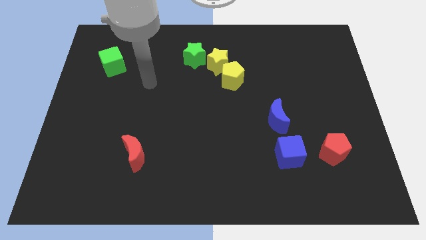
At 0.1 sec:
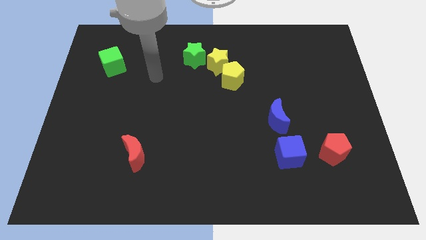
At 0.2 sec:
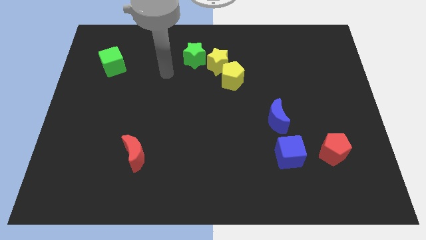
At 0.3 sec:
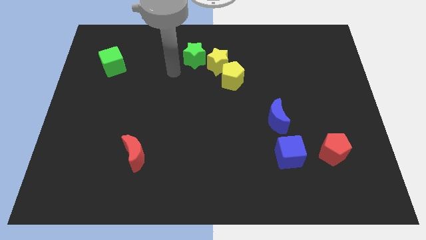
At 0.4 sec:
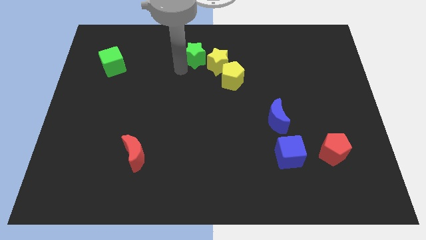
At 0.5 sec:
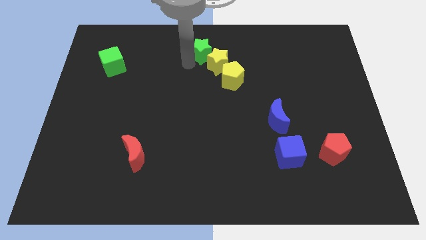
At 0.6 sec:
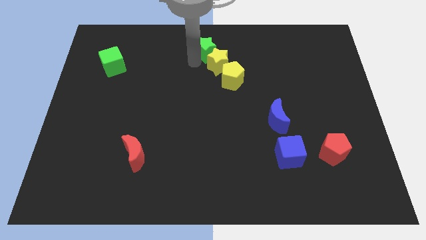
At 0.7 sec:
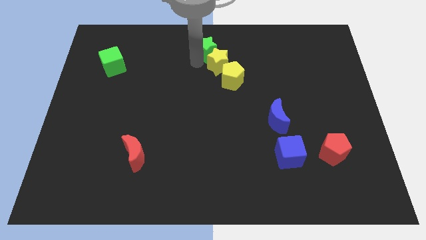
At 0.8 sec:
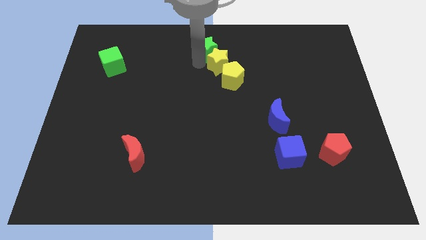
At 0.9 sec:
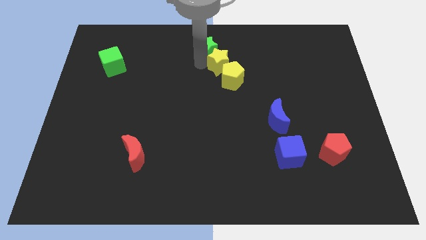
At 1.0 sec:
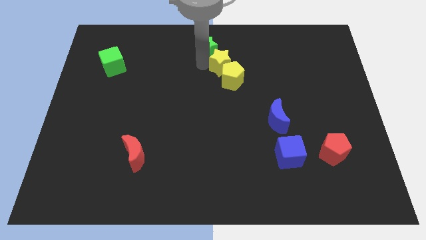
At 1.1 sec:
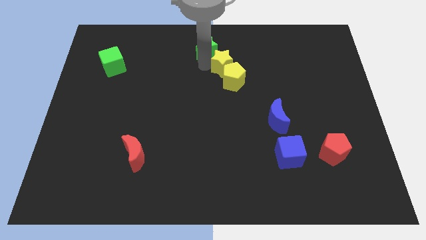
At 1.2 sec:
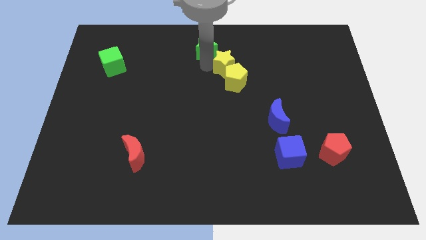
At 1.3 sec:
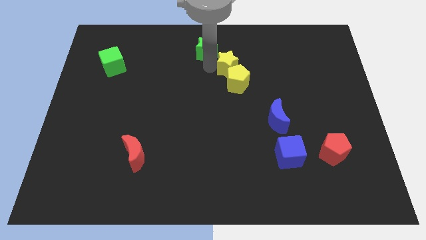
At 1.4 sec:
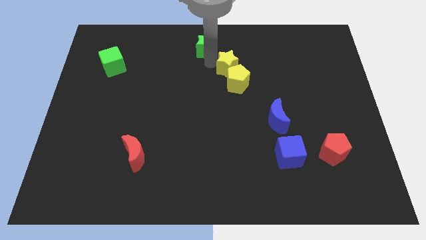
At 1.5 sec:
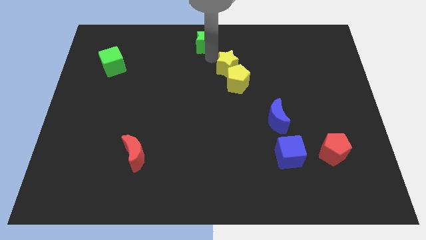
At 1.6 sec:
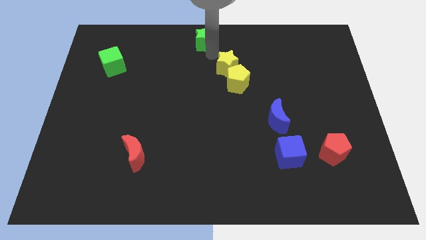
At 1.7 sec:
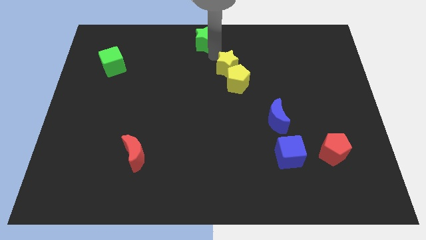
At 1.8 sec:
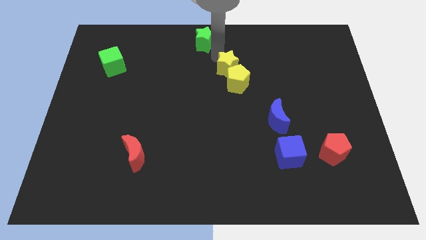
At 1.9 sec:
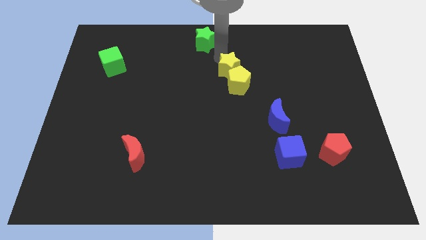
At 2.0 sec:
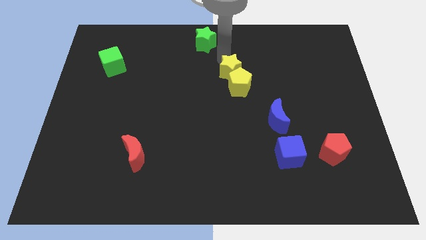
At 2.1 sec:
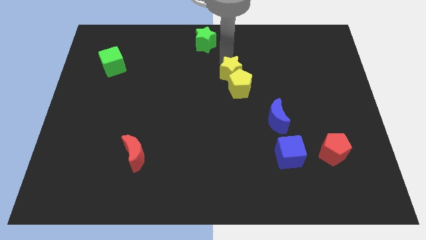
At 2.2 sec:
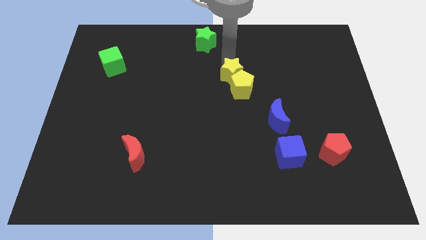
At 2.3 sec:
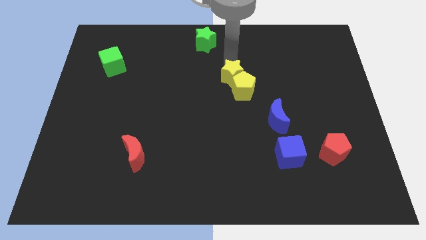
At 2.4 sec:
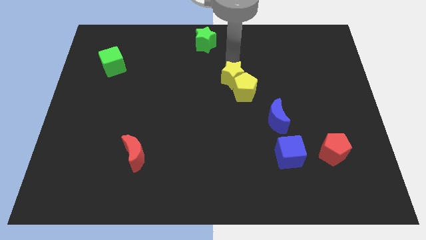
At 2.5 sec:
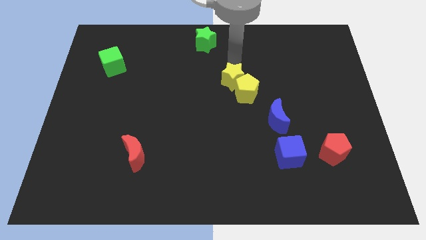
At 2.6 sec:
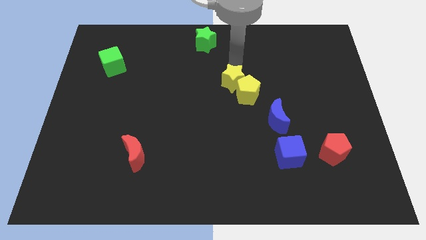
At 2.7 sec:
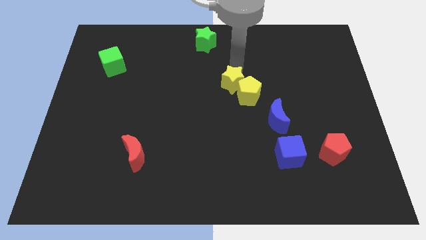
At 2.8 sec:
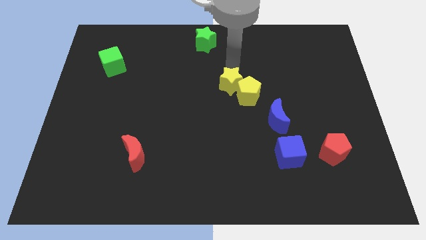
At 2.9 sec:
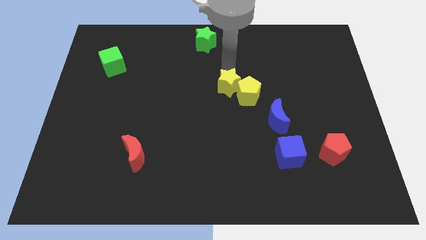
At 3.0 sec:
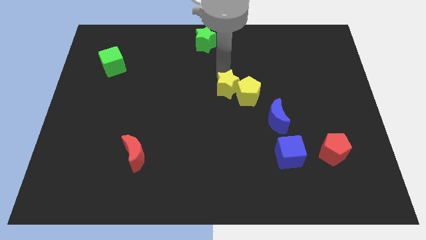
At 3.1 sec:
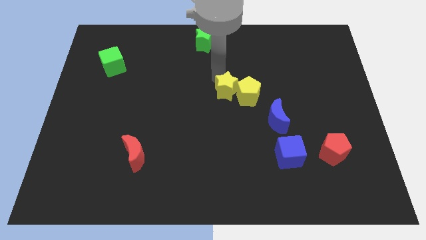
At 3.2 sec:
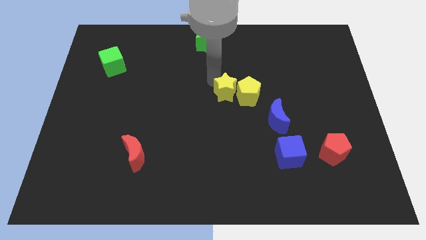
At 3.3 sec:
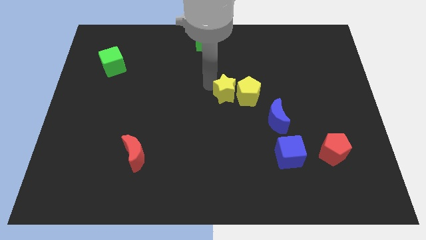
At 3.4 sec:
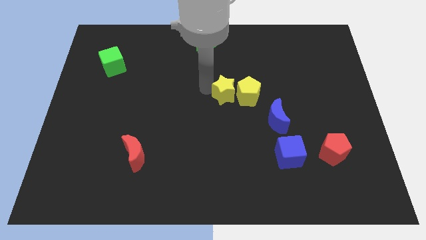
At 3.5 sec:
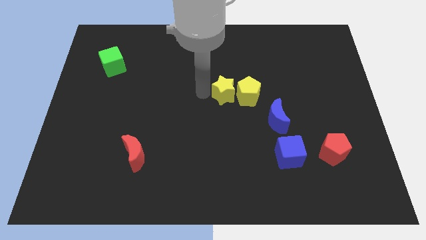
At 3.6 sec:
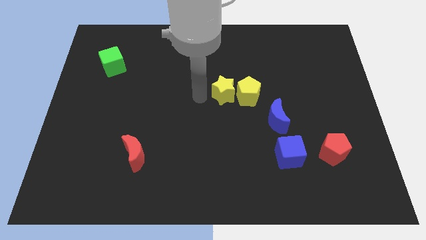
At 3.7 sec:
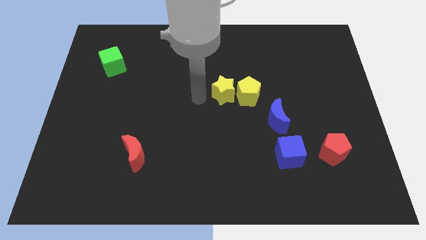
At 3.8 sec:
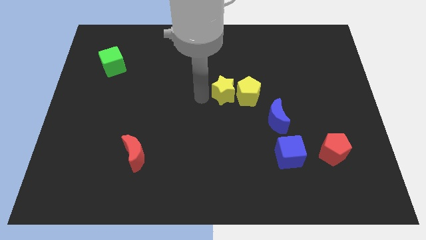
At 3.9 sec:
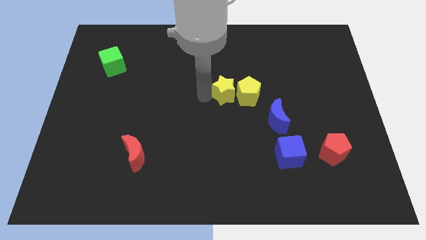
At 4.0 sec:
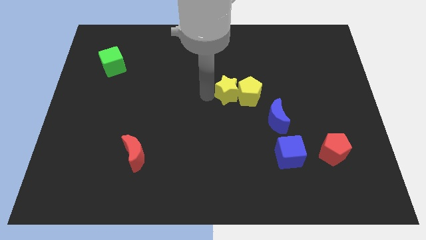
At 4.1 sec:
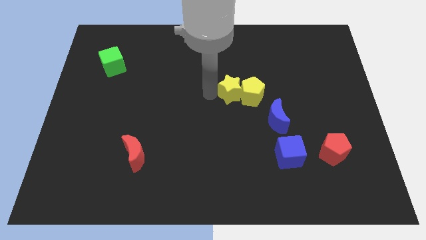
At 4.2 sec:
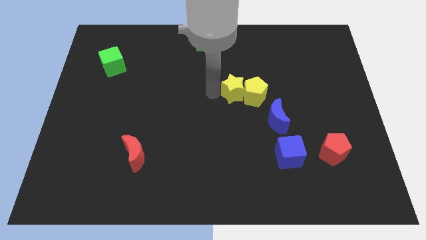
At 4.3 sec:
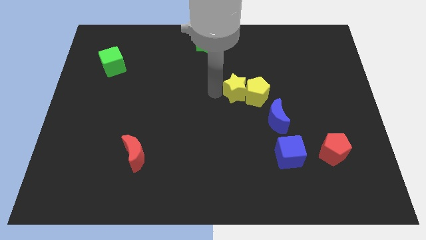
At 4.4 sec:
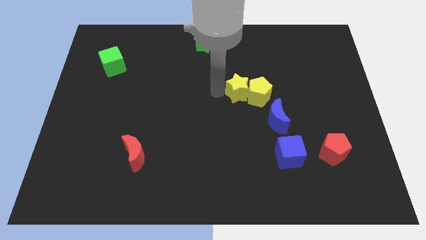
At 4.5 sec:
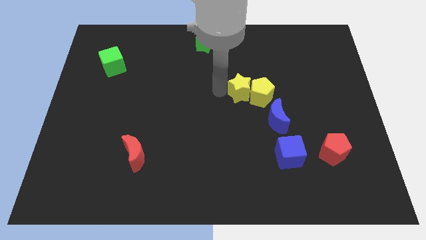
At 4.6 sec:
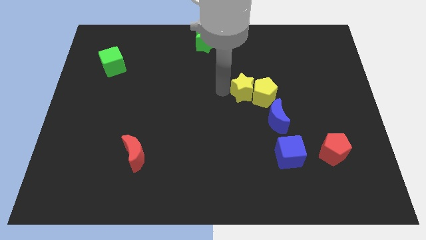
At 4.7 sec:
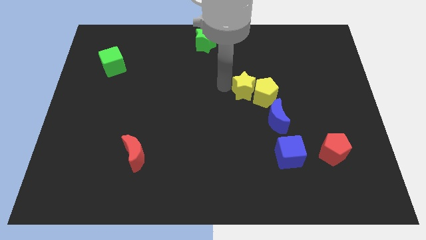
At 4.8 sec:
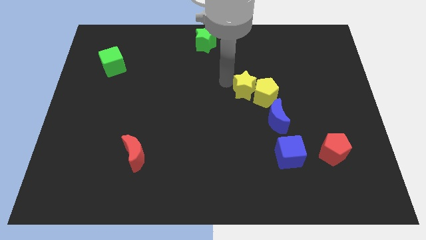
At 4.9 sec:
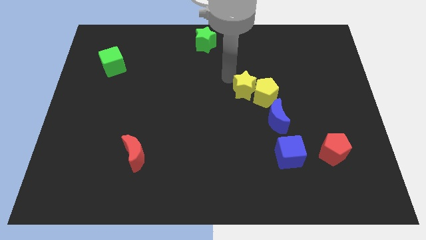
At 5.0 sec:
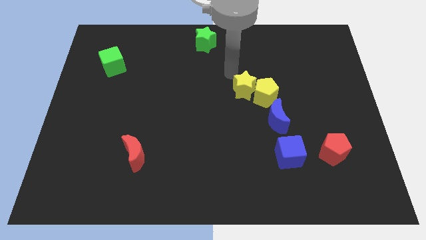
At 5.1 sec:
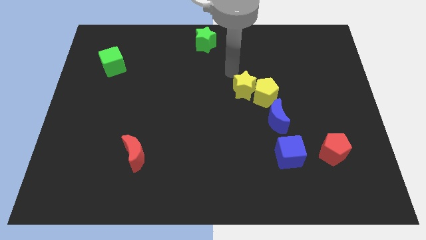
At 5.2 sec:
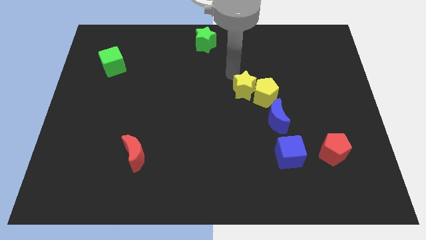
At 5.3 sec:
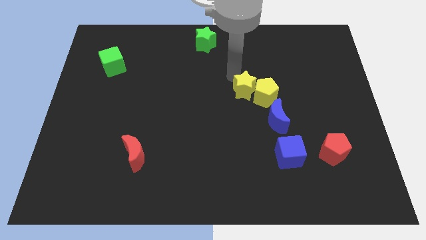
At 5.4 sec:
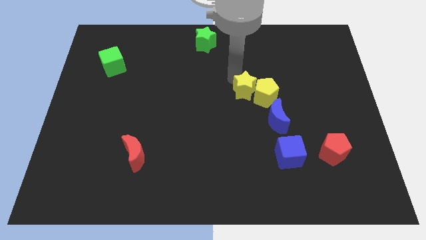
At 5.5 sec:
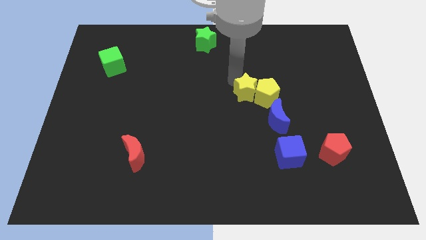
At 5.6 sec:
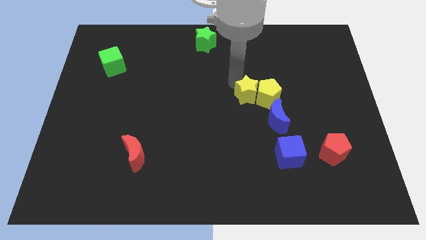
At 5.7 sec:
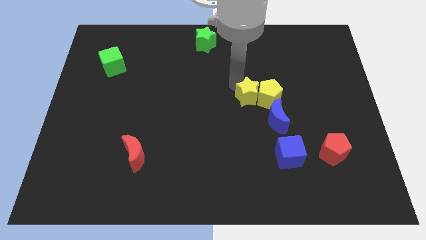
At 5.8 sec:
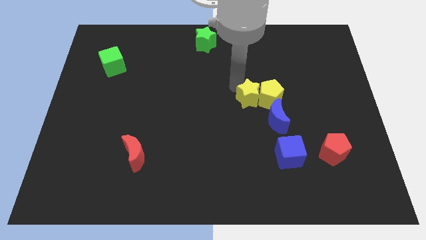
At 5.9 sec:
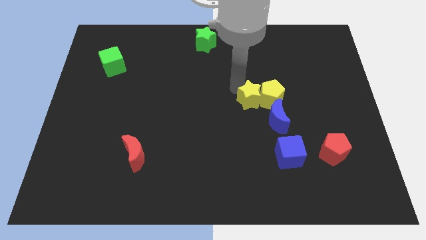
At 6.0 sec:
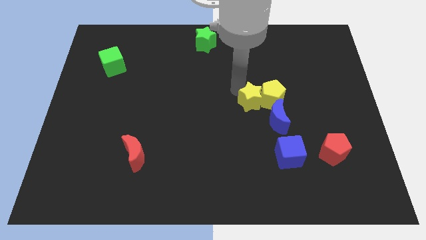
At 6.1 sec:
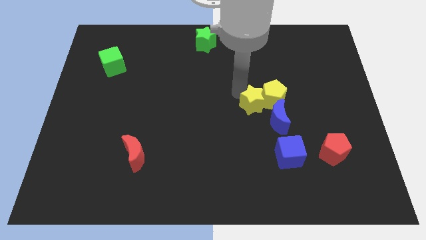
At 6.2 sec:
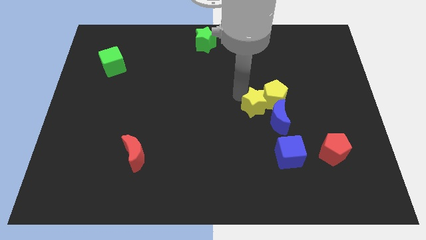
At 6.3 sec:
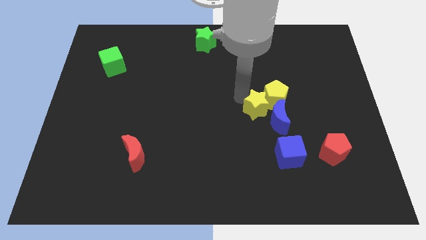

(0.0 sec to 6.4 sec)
slide the yellow star to the blue moon

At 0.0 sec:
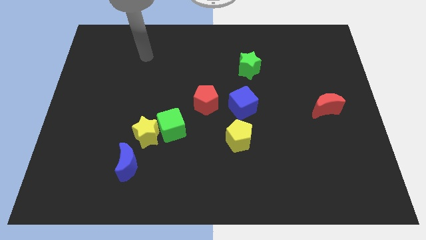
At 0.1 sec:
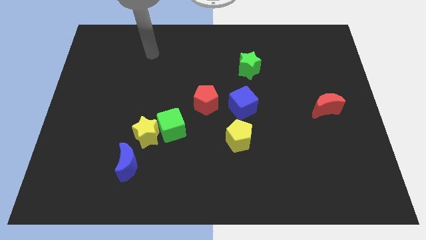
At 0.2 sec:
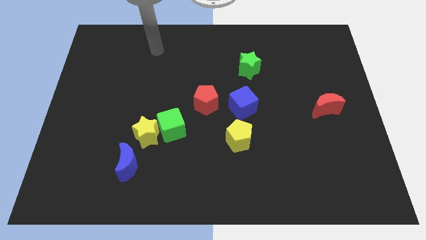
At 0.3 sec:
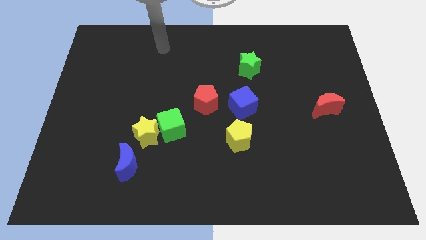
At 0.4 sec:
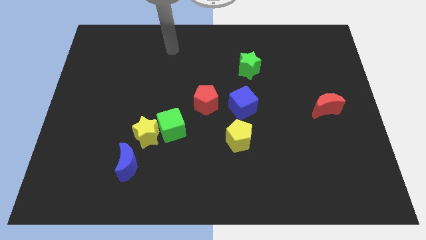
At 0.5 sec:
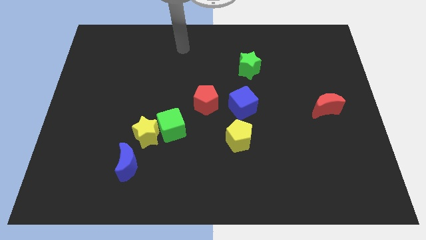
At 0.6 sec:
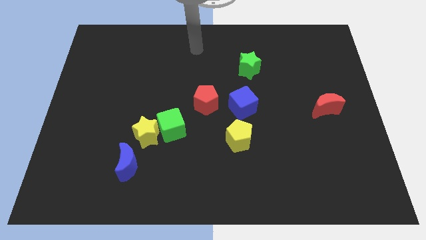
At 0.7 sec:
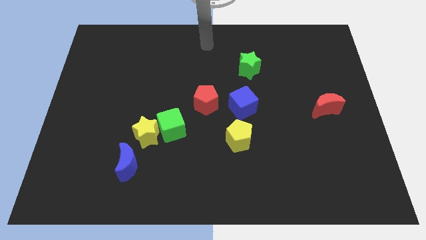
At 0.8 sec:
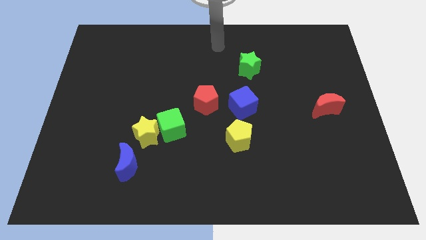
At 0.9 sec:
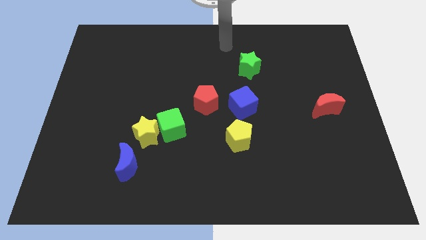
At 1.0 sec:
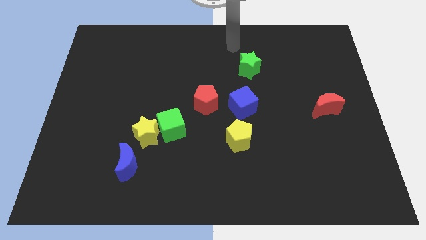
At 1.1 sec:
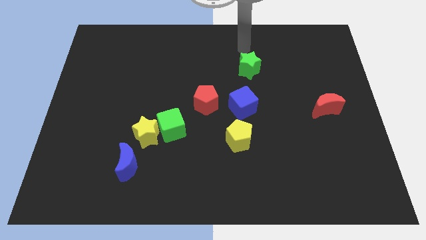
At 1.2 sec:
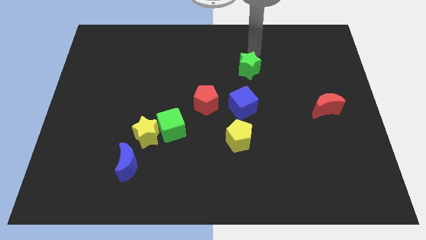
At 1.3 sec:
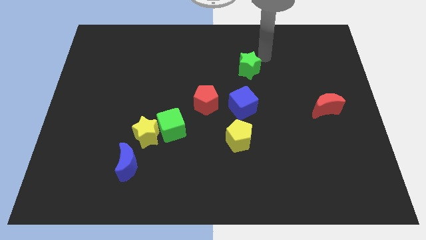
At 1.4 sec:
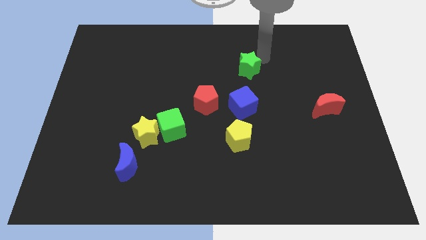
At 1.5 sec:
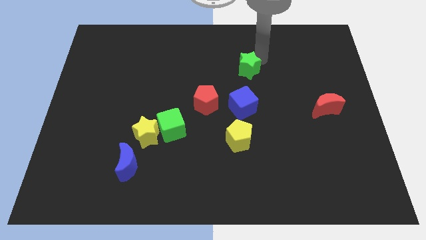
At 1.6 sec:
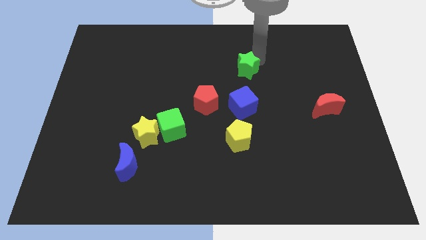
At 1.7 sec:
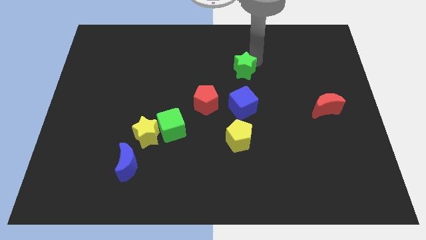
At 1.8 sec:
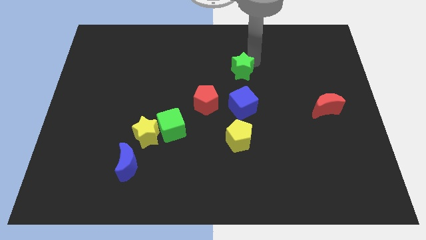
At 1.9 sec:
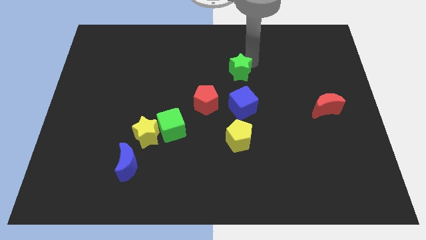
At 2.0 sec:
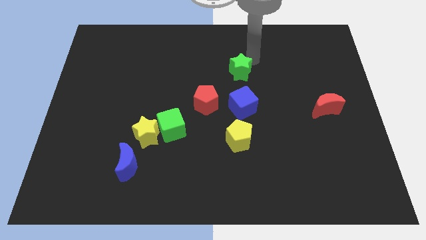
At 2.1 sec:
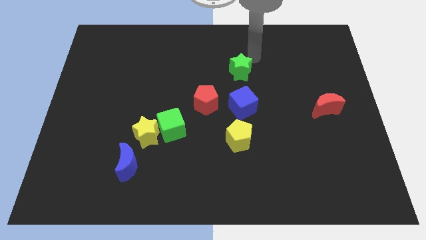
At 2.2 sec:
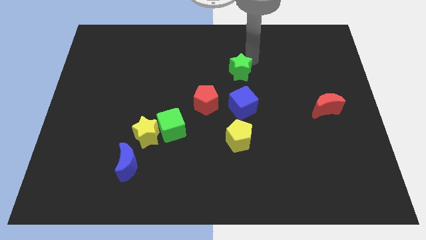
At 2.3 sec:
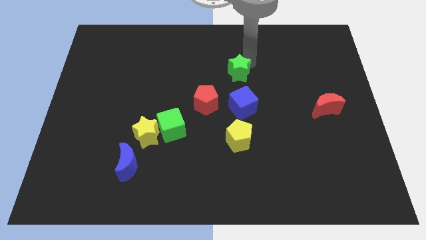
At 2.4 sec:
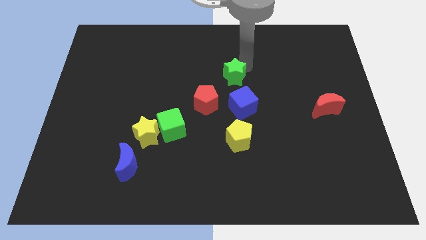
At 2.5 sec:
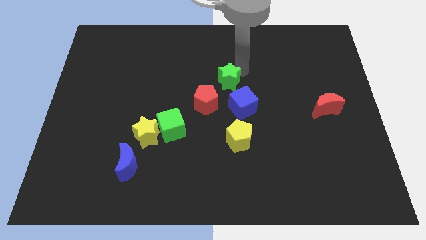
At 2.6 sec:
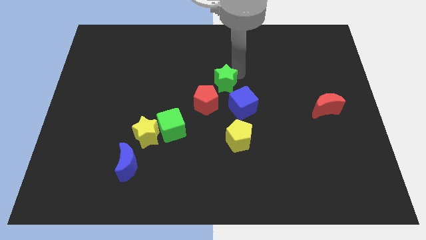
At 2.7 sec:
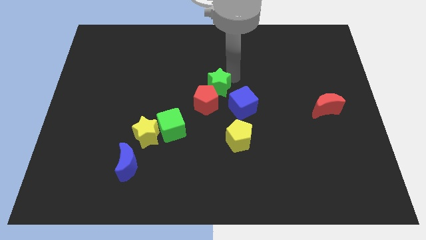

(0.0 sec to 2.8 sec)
move the green star next to the red pentagon
